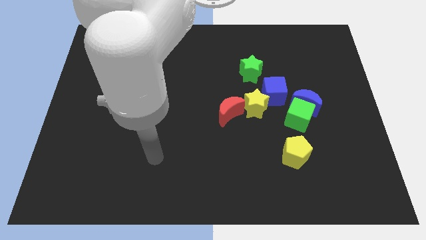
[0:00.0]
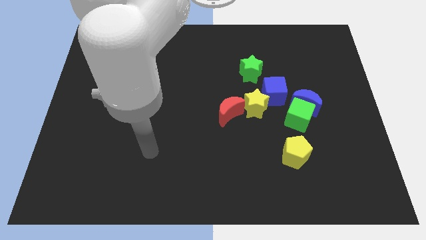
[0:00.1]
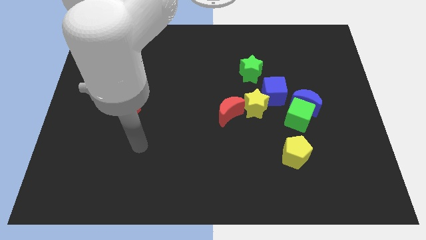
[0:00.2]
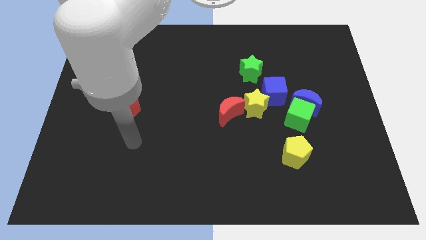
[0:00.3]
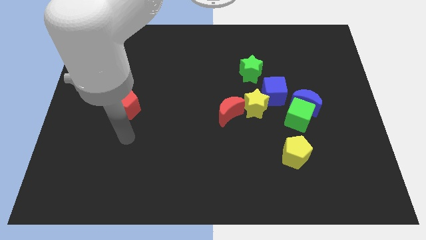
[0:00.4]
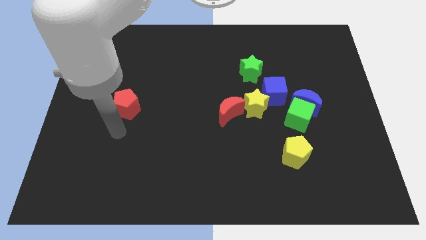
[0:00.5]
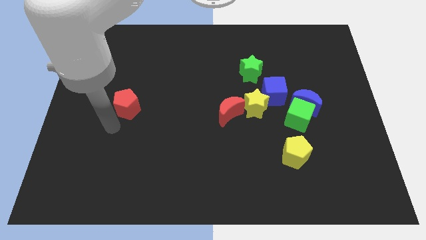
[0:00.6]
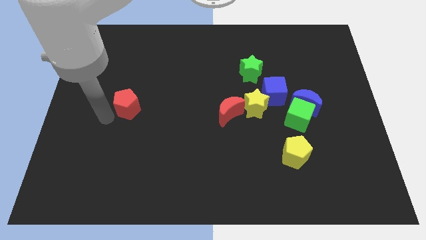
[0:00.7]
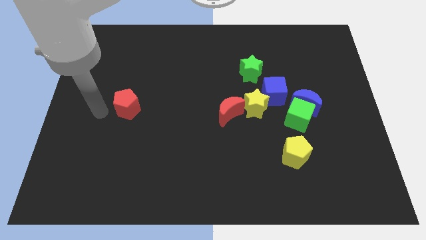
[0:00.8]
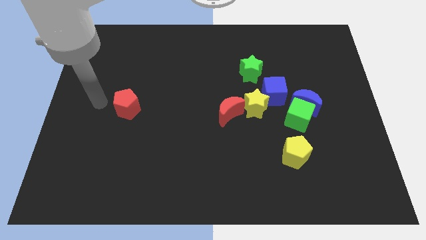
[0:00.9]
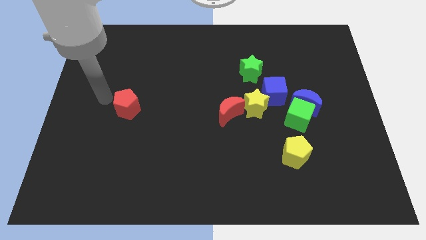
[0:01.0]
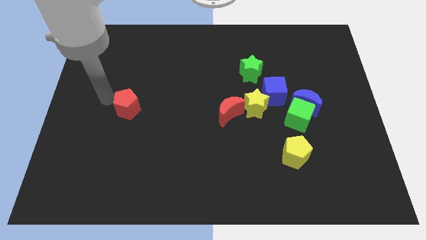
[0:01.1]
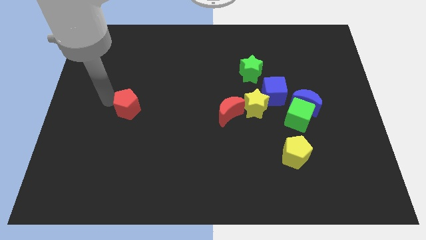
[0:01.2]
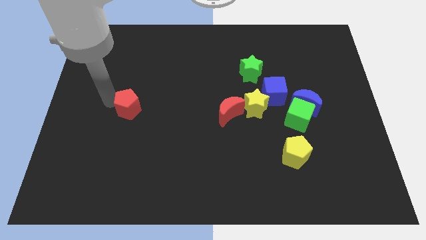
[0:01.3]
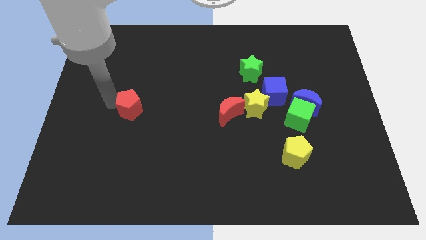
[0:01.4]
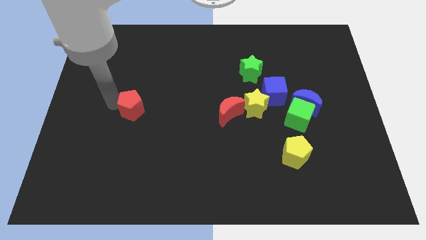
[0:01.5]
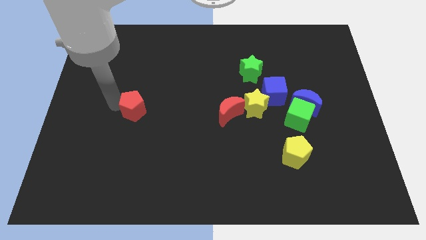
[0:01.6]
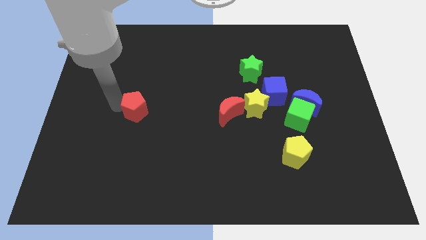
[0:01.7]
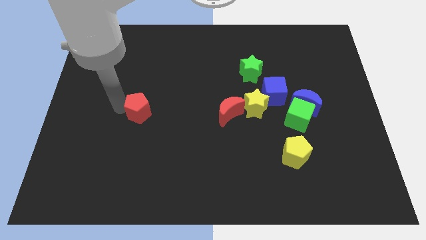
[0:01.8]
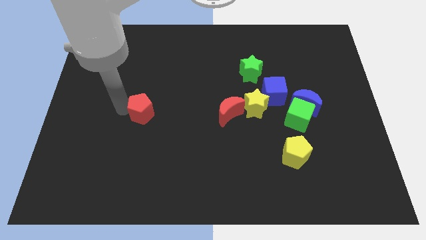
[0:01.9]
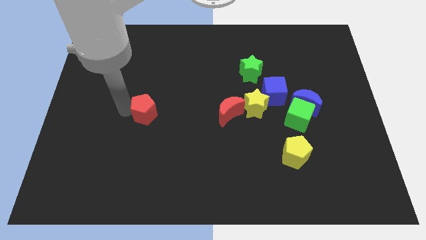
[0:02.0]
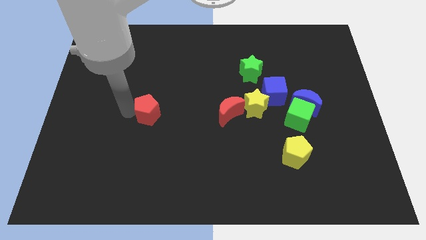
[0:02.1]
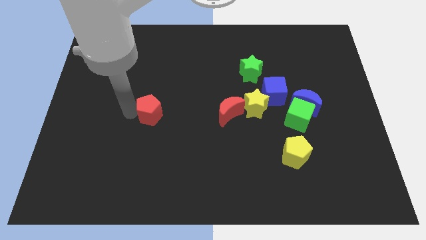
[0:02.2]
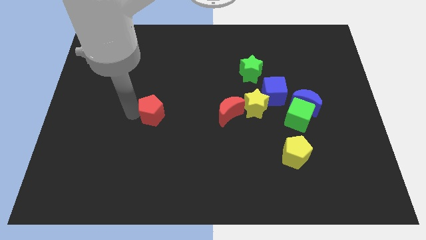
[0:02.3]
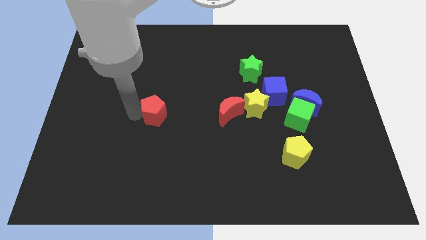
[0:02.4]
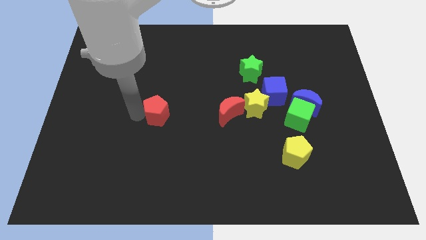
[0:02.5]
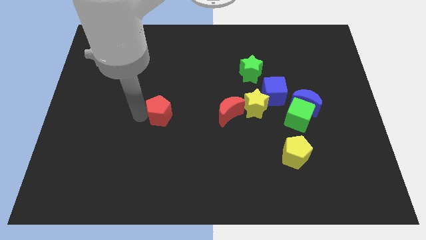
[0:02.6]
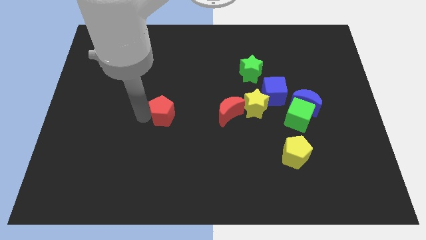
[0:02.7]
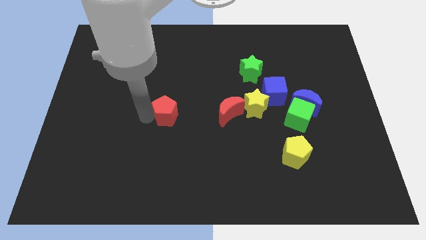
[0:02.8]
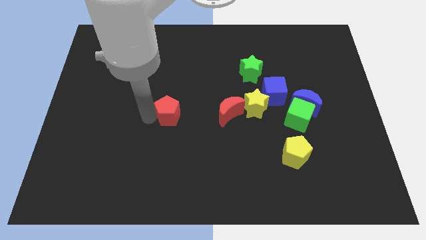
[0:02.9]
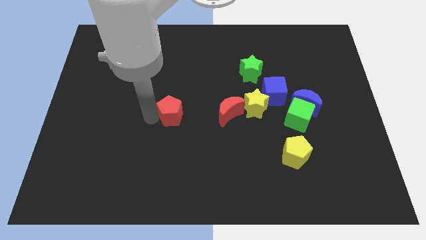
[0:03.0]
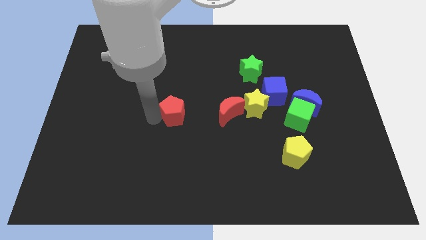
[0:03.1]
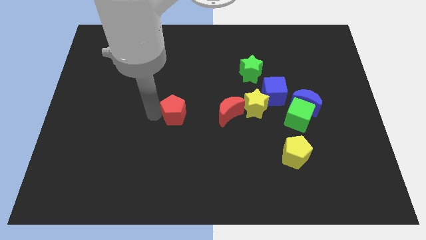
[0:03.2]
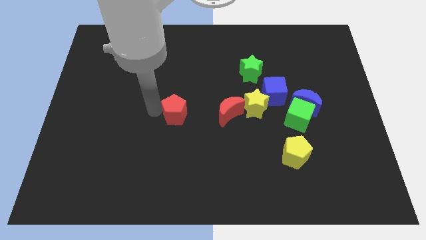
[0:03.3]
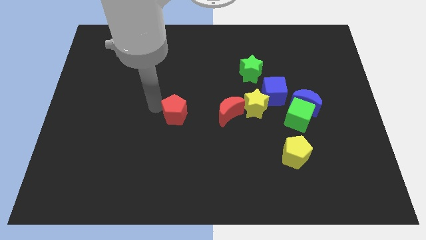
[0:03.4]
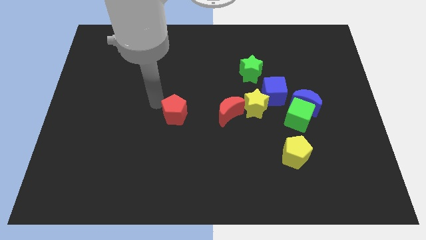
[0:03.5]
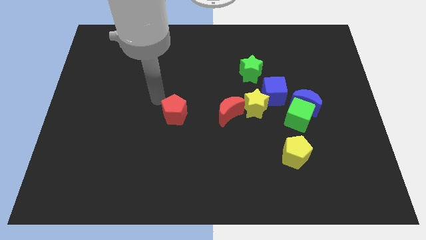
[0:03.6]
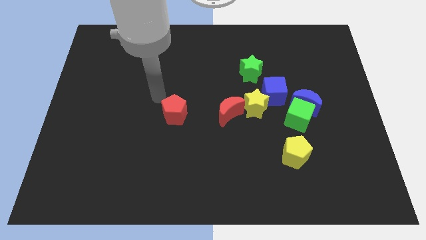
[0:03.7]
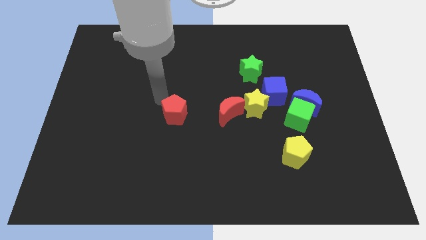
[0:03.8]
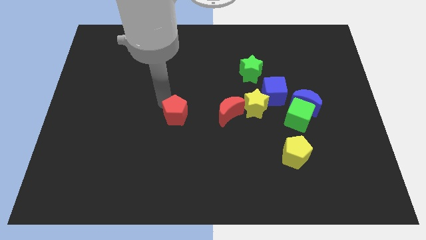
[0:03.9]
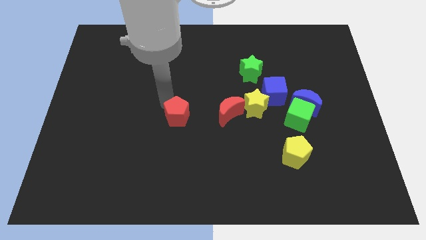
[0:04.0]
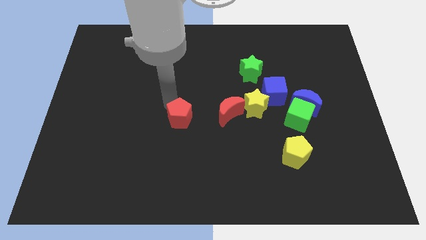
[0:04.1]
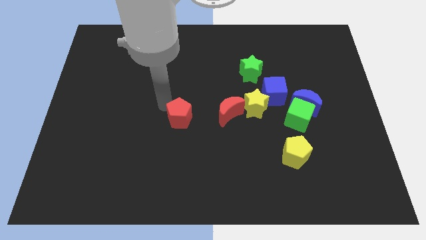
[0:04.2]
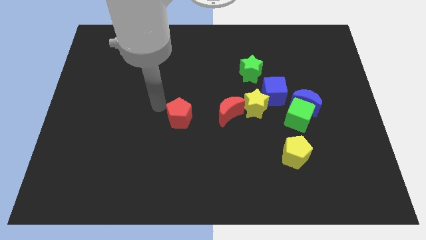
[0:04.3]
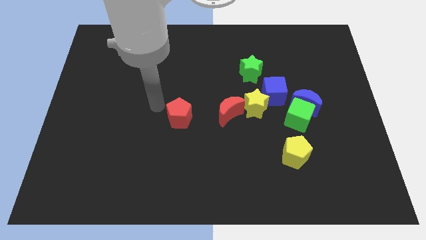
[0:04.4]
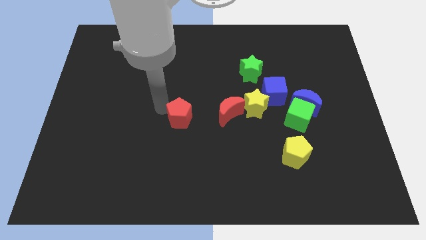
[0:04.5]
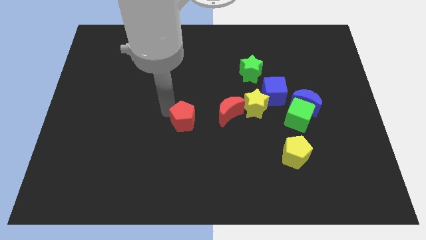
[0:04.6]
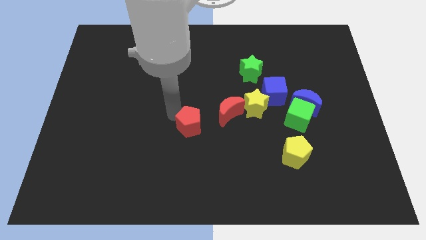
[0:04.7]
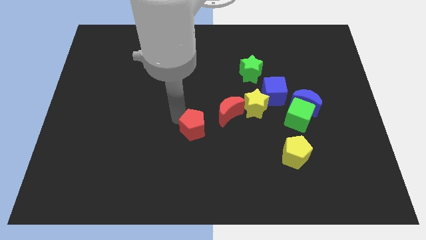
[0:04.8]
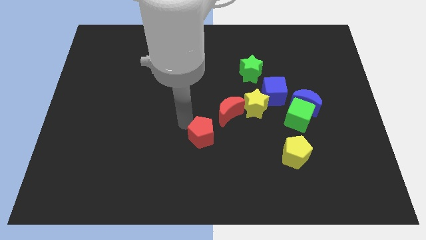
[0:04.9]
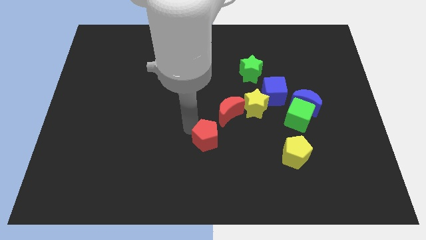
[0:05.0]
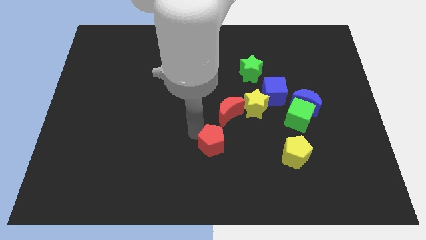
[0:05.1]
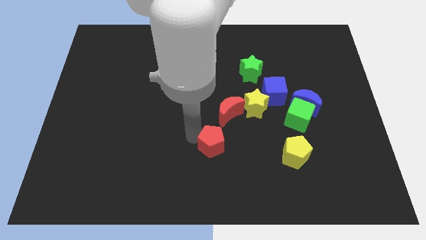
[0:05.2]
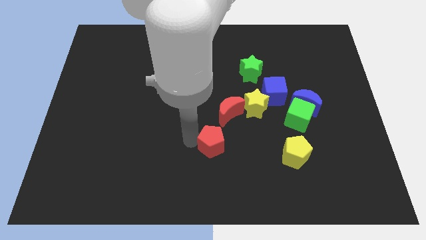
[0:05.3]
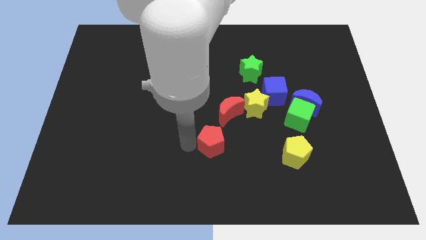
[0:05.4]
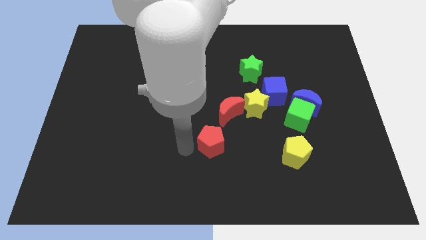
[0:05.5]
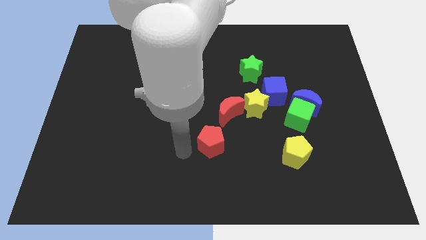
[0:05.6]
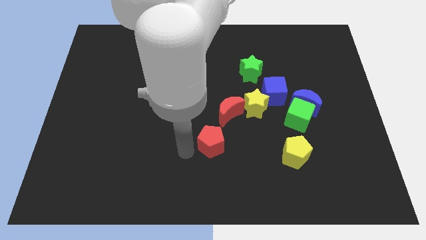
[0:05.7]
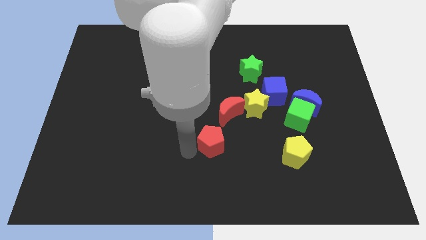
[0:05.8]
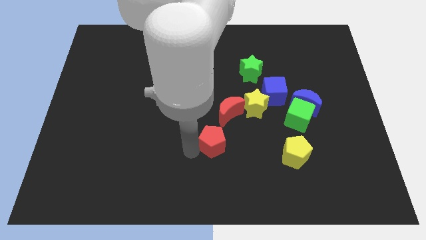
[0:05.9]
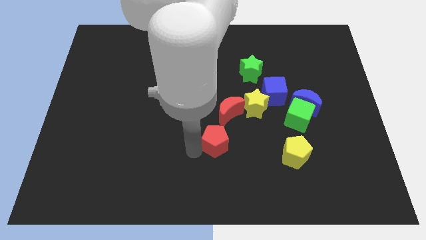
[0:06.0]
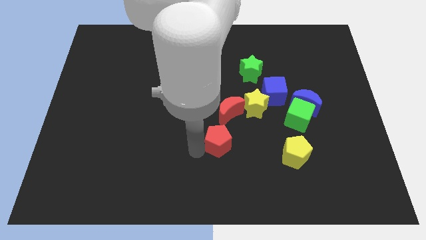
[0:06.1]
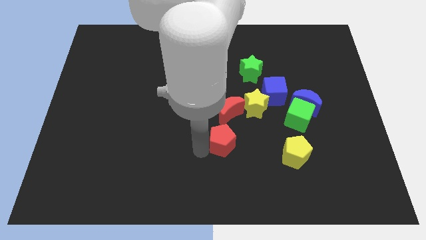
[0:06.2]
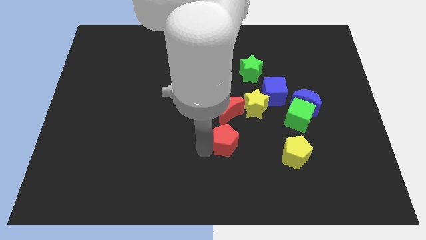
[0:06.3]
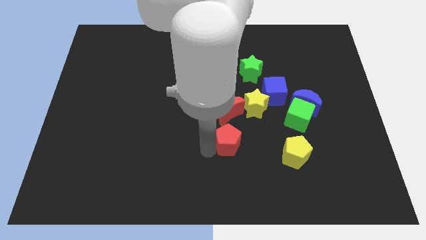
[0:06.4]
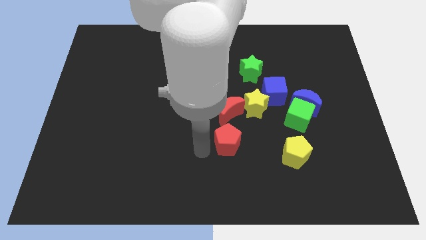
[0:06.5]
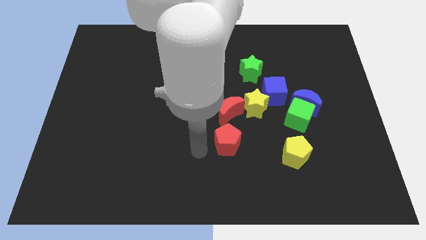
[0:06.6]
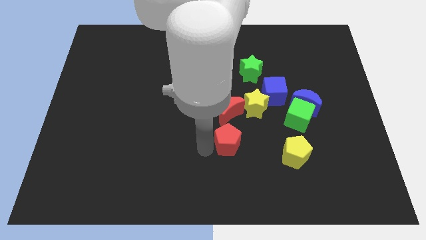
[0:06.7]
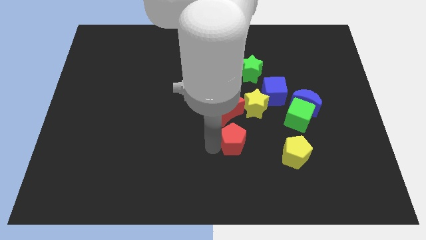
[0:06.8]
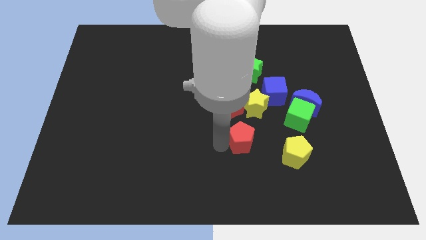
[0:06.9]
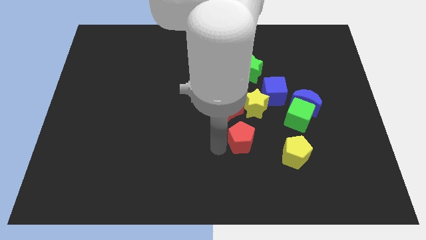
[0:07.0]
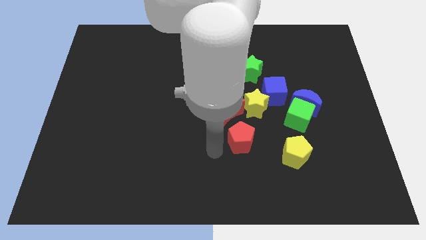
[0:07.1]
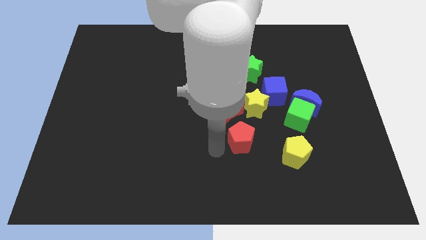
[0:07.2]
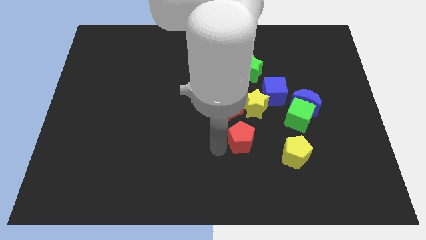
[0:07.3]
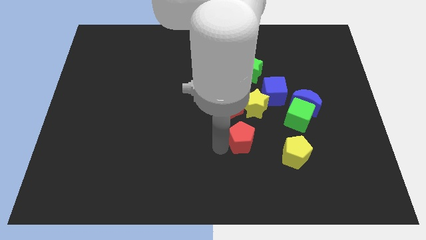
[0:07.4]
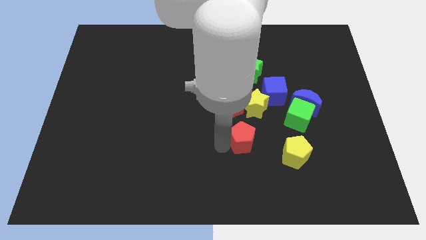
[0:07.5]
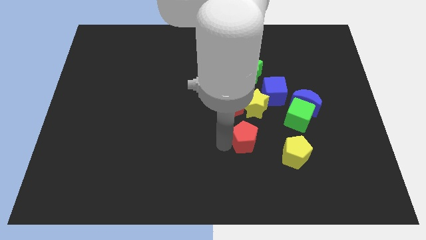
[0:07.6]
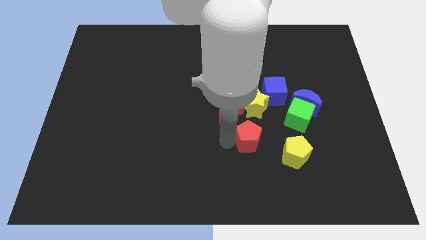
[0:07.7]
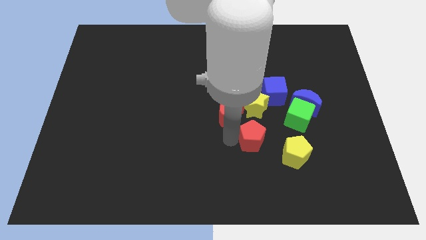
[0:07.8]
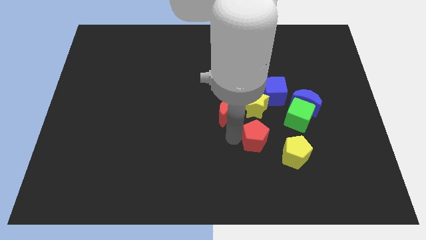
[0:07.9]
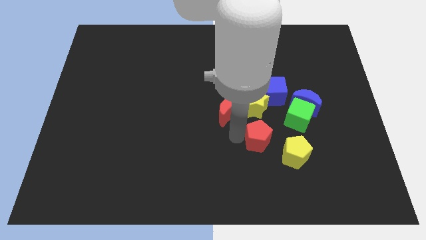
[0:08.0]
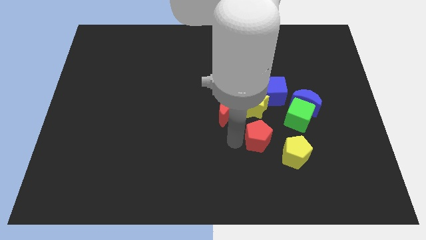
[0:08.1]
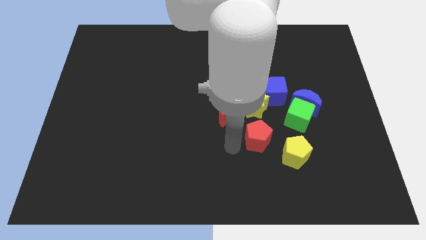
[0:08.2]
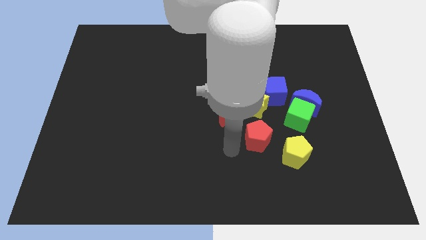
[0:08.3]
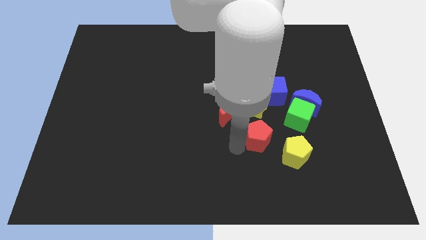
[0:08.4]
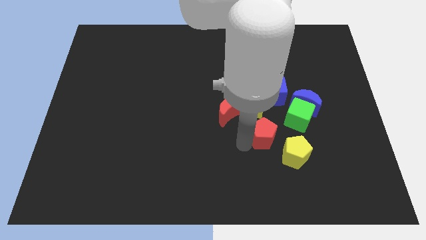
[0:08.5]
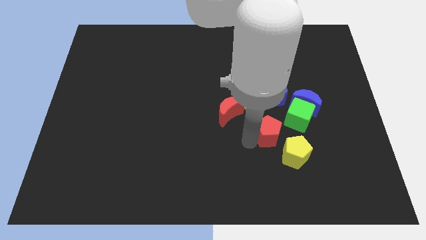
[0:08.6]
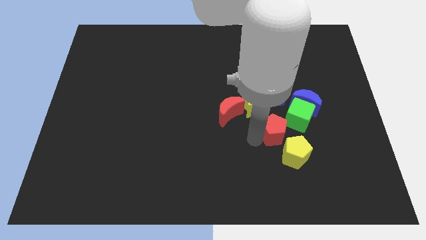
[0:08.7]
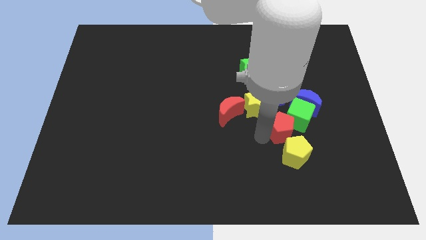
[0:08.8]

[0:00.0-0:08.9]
move the red pentagon towards the green cube
